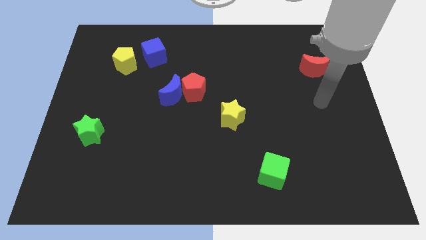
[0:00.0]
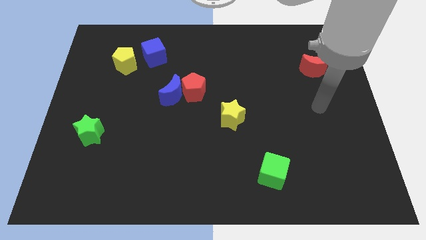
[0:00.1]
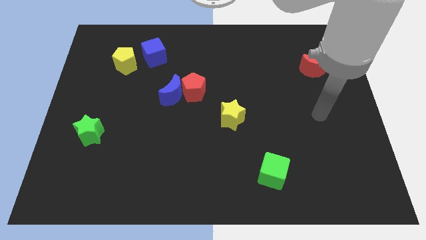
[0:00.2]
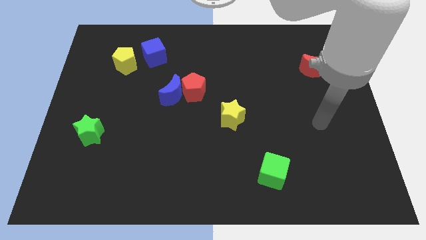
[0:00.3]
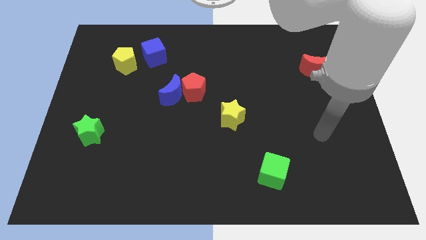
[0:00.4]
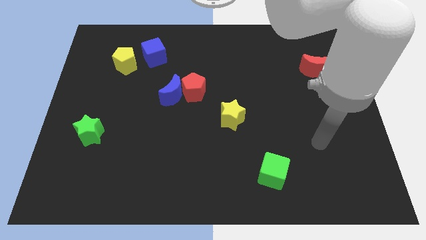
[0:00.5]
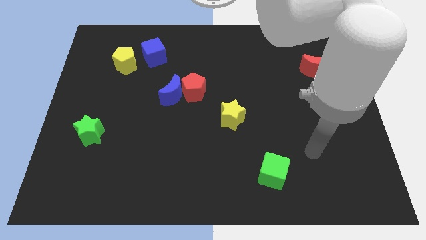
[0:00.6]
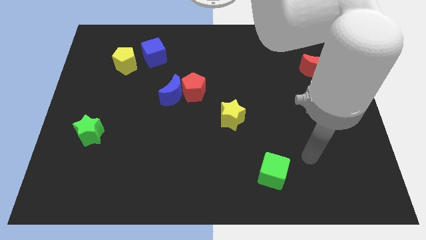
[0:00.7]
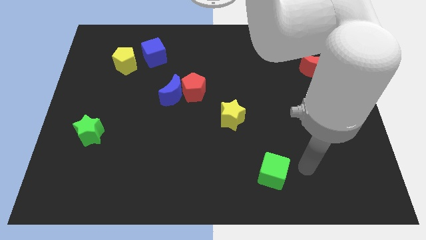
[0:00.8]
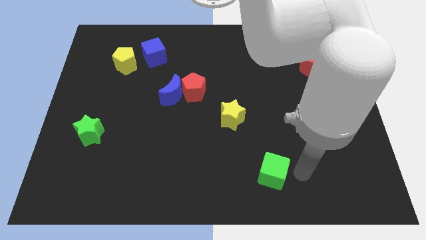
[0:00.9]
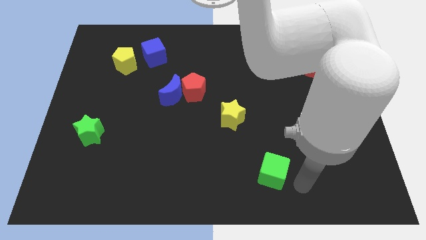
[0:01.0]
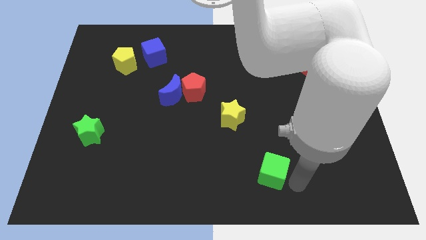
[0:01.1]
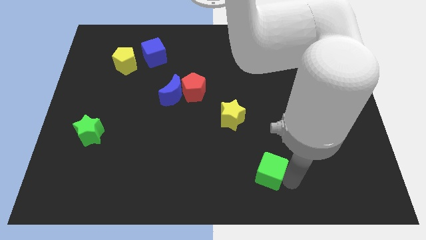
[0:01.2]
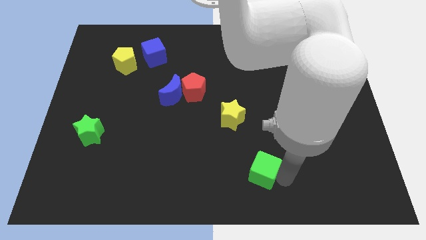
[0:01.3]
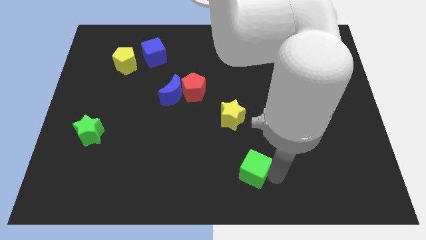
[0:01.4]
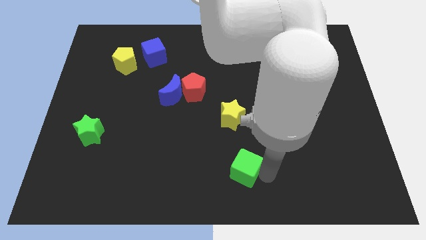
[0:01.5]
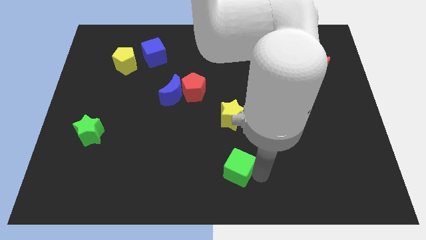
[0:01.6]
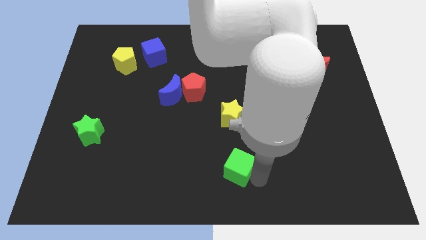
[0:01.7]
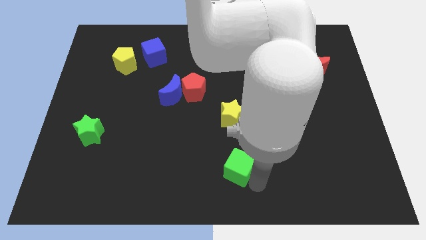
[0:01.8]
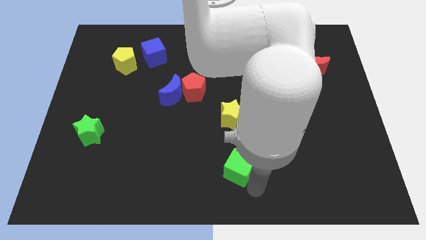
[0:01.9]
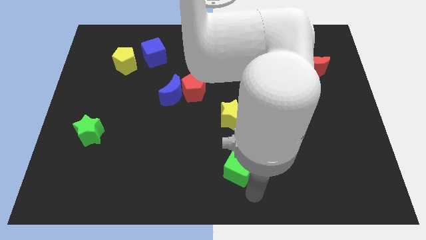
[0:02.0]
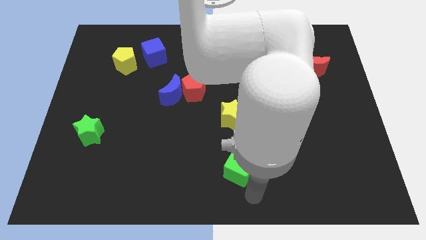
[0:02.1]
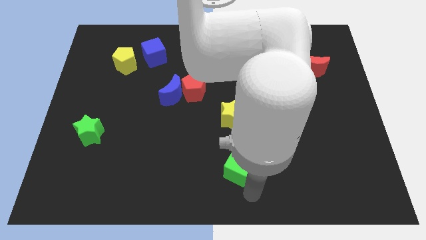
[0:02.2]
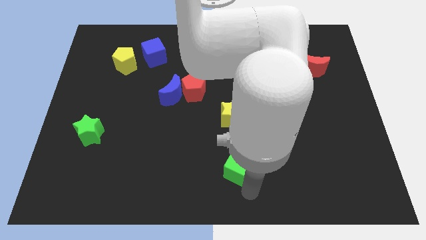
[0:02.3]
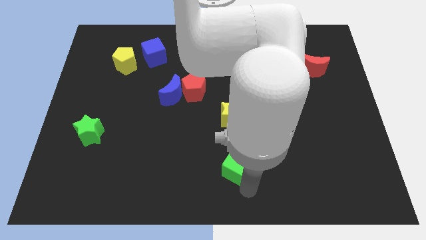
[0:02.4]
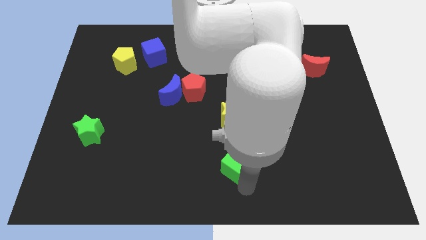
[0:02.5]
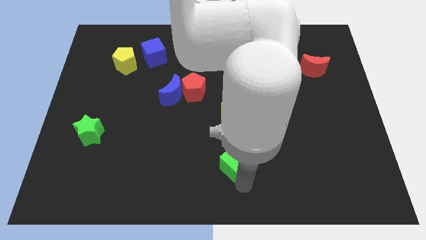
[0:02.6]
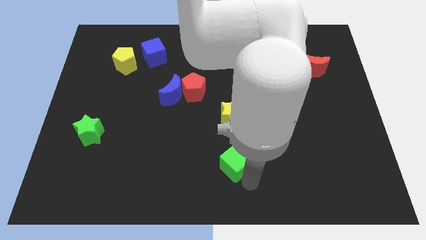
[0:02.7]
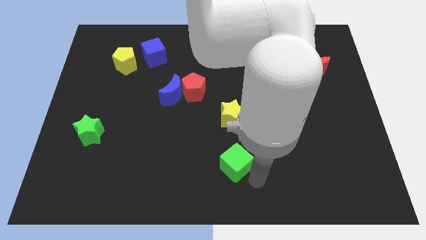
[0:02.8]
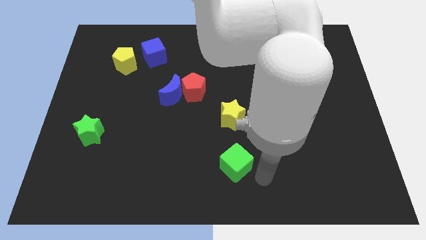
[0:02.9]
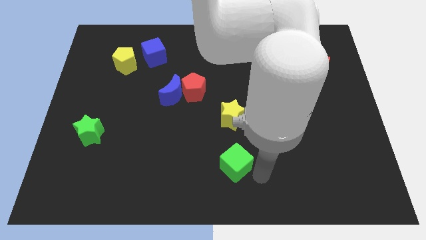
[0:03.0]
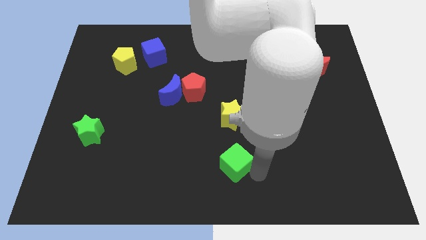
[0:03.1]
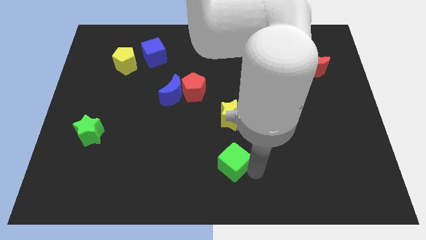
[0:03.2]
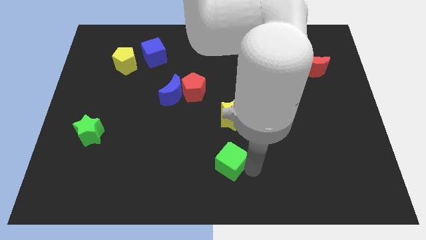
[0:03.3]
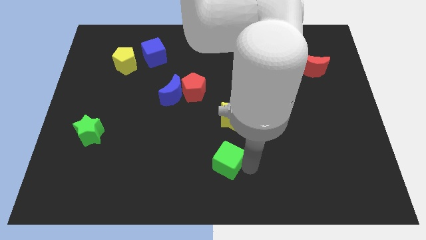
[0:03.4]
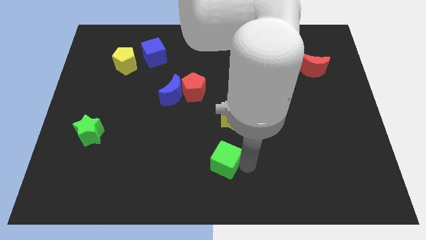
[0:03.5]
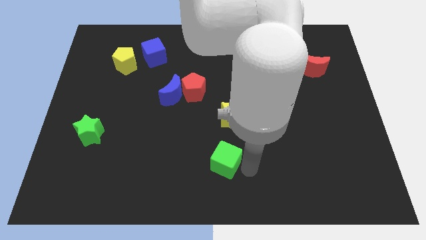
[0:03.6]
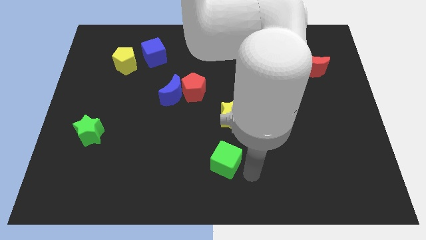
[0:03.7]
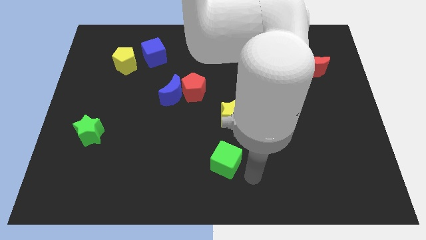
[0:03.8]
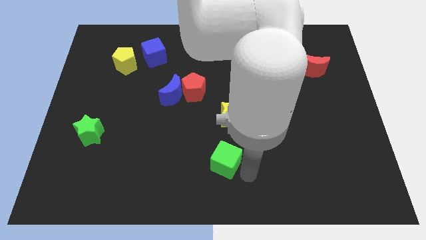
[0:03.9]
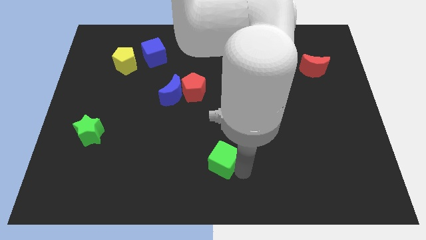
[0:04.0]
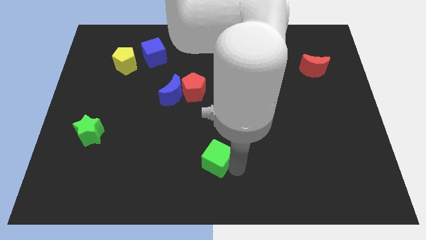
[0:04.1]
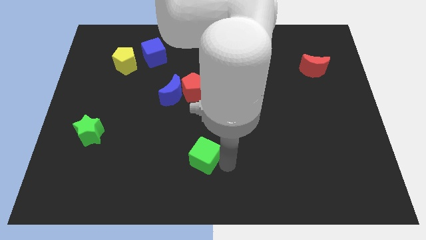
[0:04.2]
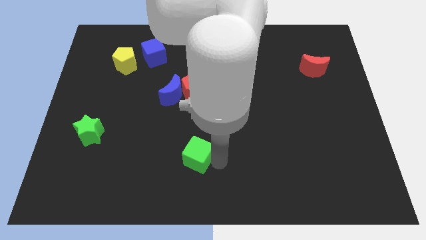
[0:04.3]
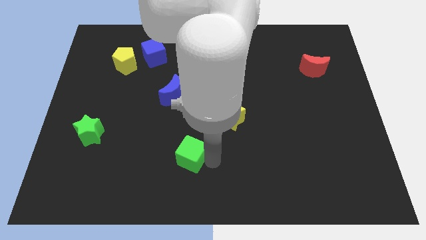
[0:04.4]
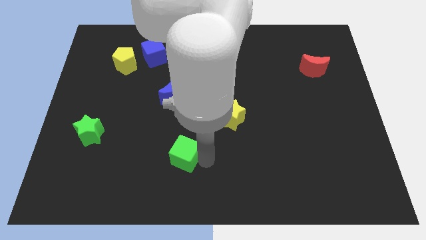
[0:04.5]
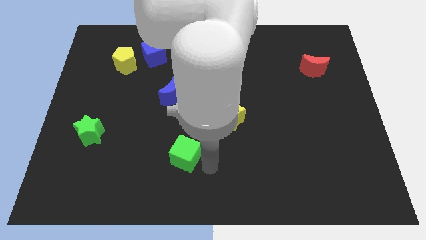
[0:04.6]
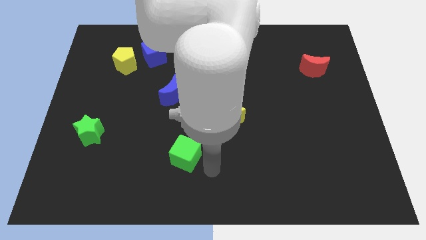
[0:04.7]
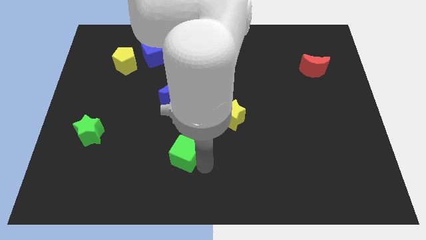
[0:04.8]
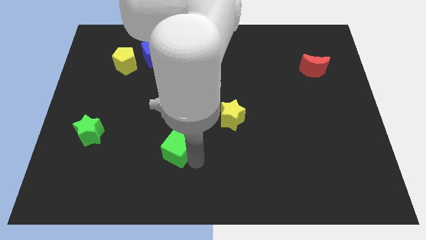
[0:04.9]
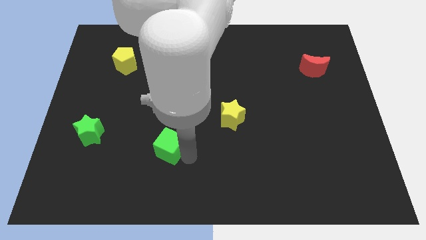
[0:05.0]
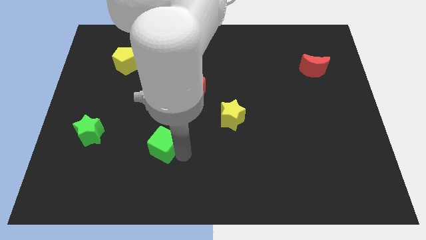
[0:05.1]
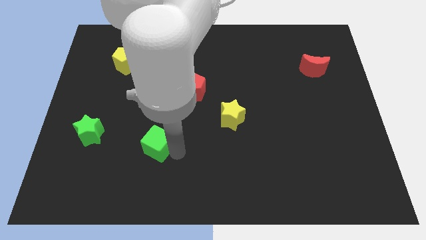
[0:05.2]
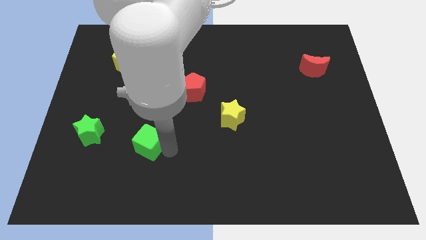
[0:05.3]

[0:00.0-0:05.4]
put the green cube to the right of the green star

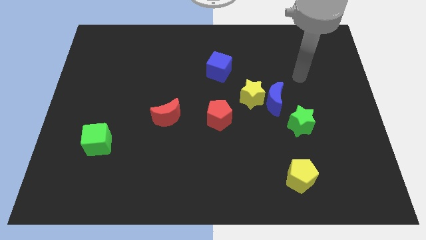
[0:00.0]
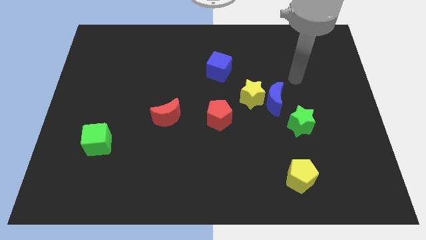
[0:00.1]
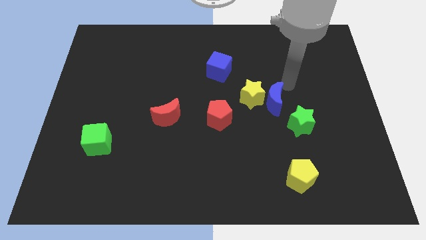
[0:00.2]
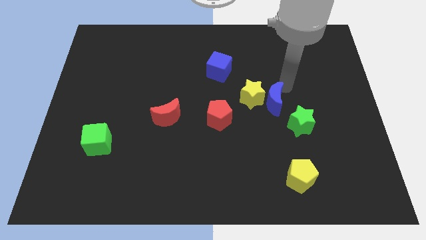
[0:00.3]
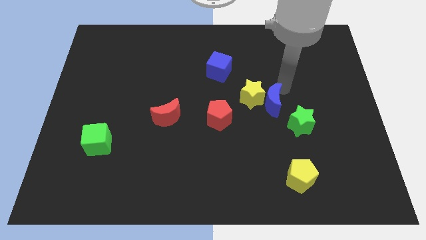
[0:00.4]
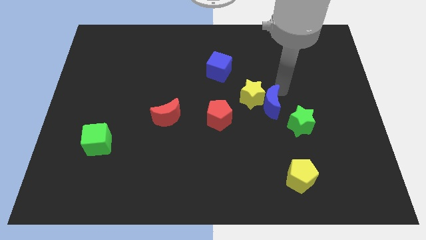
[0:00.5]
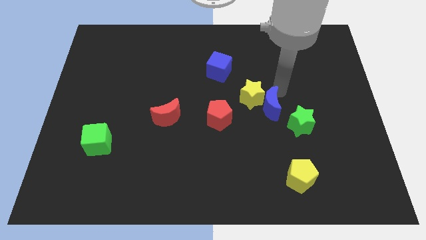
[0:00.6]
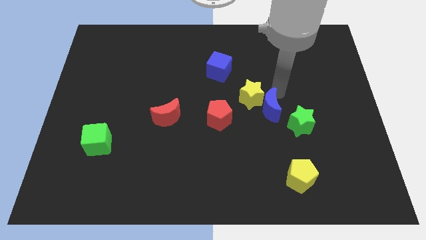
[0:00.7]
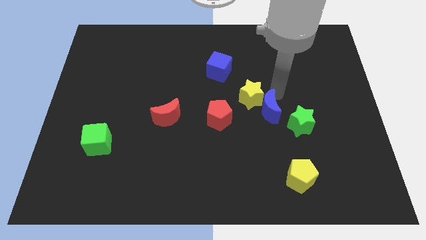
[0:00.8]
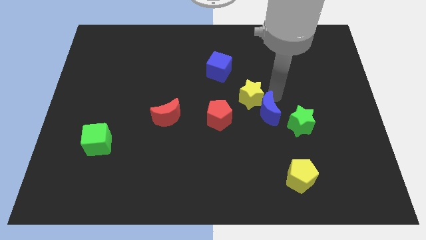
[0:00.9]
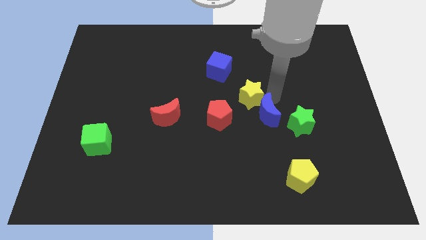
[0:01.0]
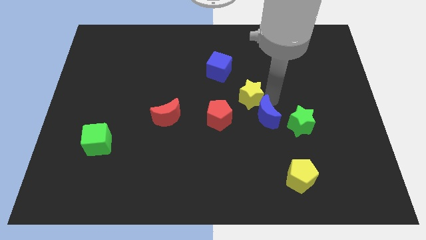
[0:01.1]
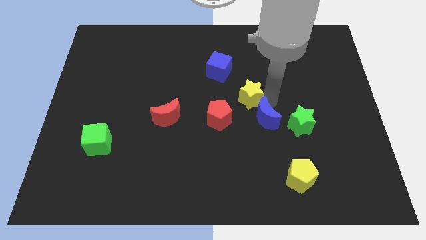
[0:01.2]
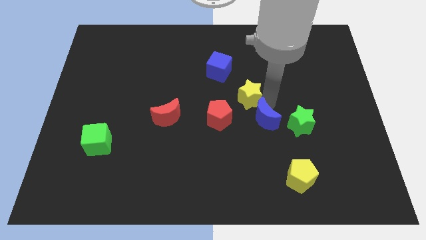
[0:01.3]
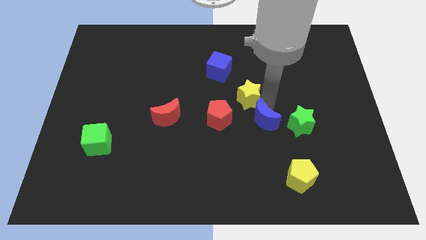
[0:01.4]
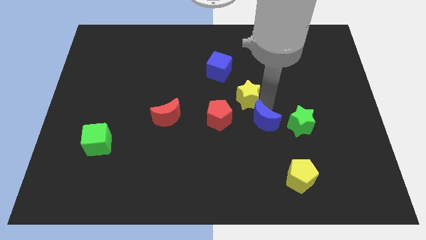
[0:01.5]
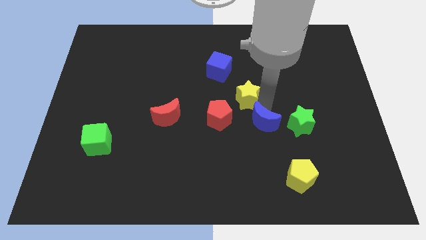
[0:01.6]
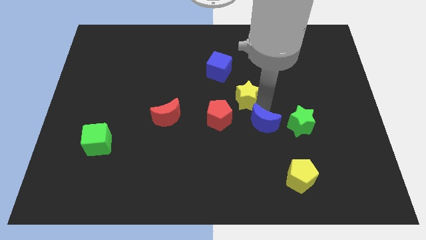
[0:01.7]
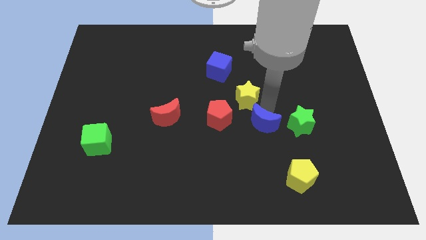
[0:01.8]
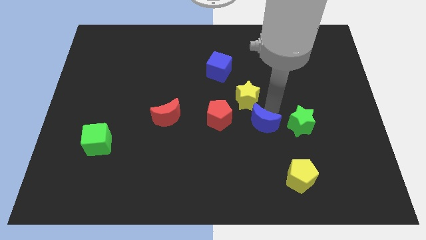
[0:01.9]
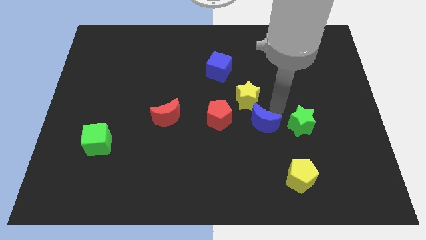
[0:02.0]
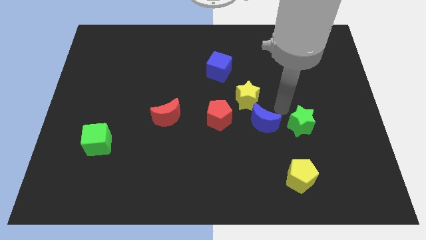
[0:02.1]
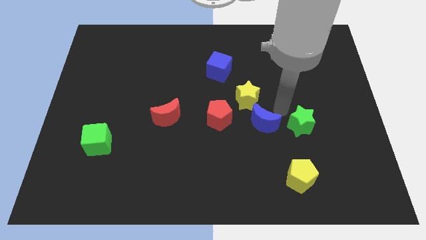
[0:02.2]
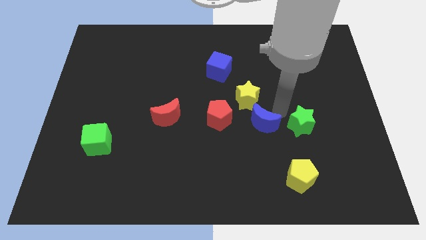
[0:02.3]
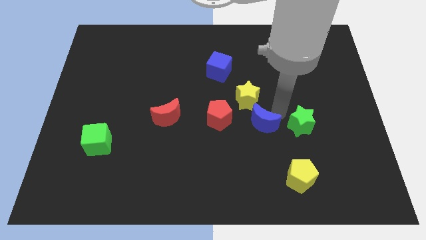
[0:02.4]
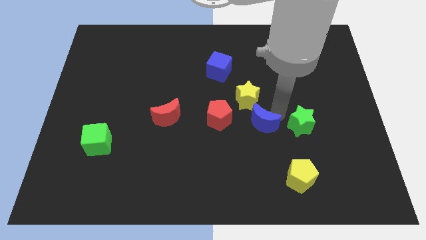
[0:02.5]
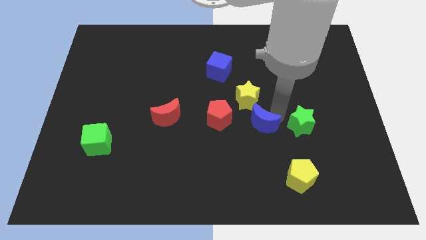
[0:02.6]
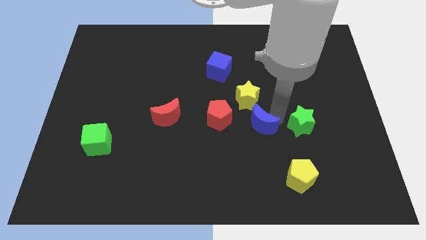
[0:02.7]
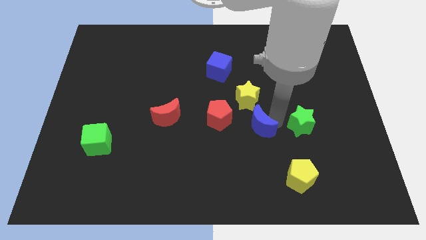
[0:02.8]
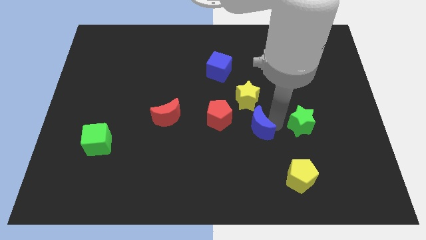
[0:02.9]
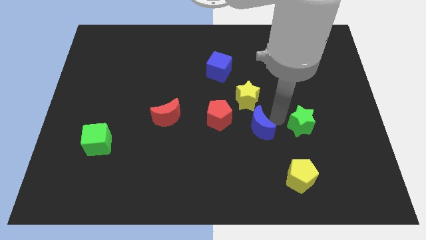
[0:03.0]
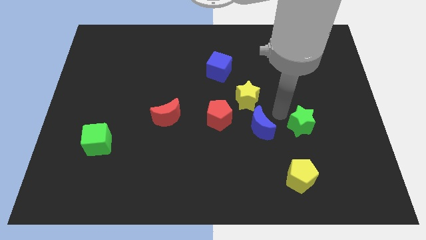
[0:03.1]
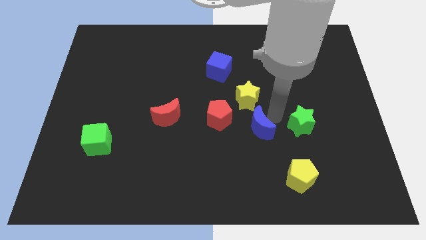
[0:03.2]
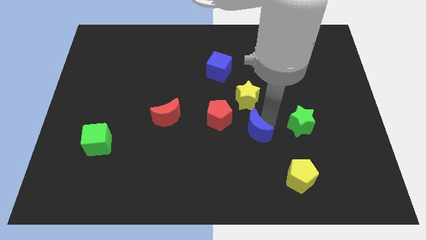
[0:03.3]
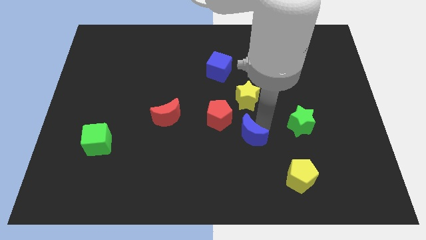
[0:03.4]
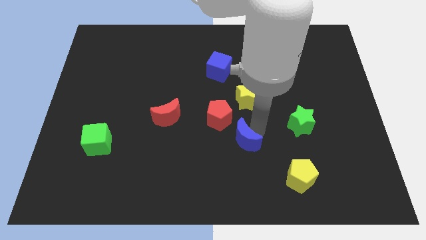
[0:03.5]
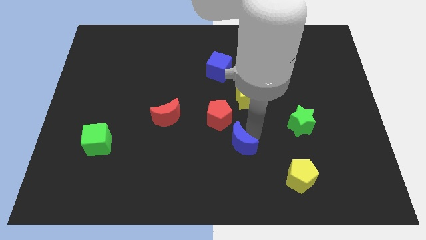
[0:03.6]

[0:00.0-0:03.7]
slide the blue moon below the red pentagon
